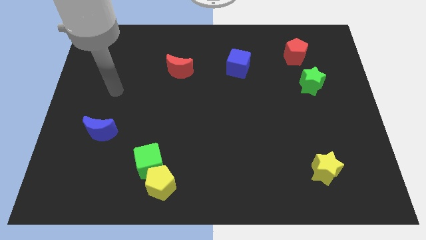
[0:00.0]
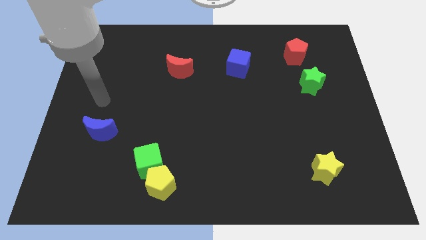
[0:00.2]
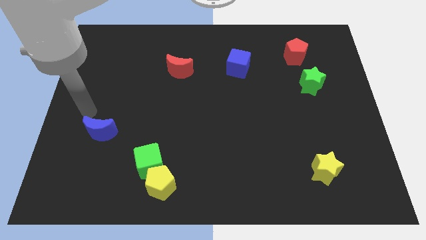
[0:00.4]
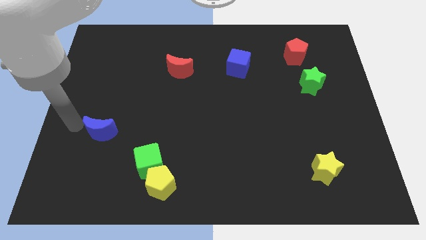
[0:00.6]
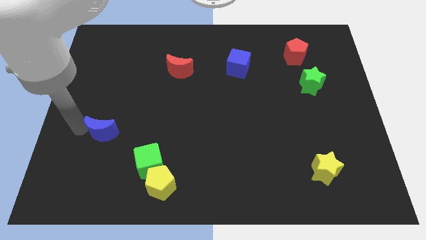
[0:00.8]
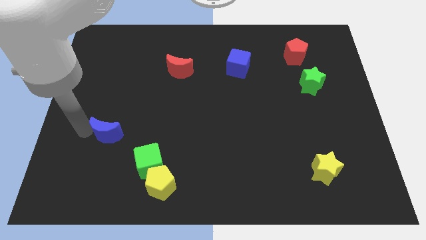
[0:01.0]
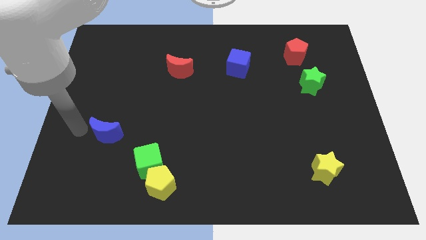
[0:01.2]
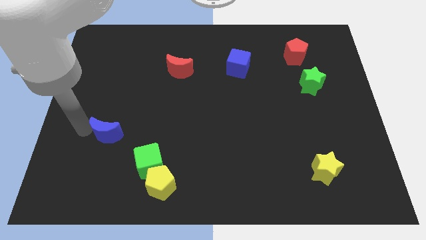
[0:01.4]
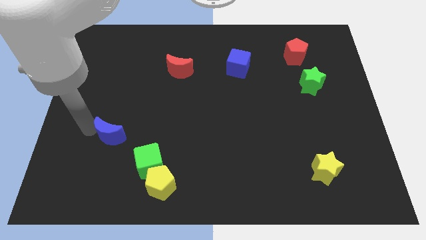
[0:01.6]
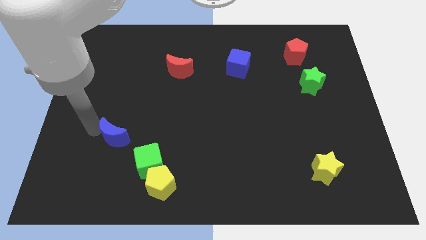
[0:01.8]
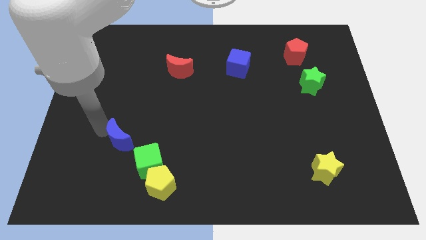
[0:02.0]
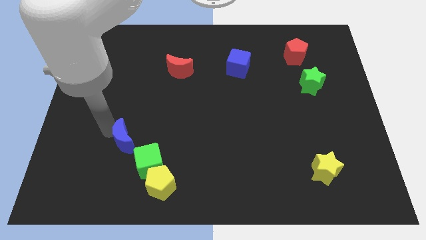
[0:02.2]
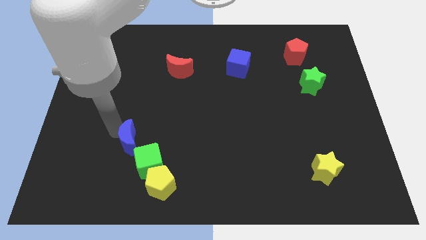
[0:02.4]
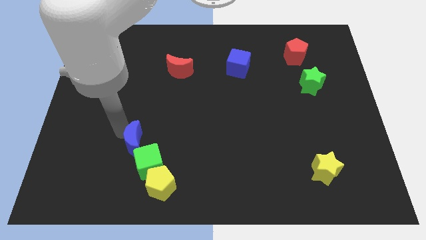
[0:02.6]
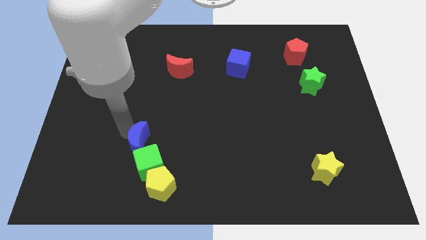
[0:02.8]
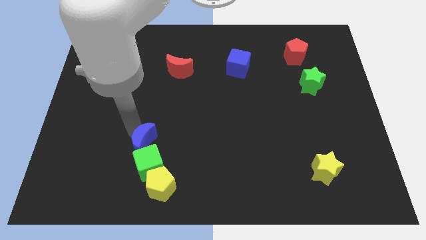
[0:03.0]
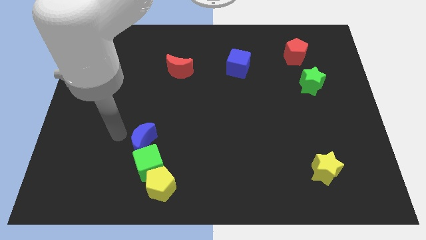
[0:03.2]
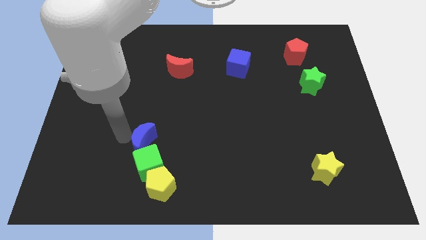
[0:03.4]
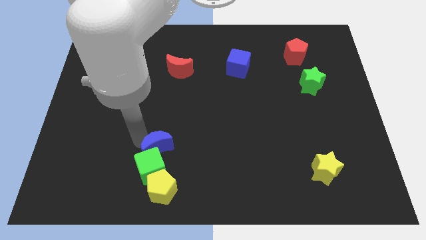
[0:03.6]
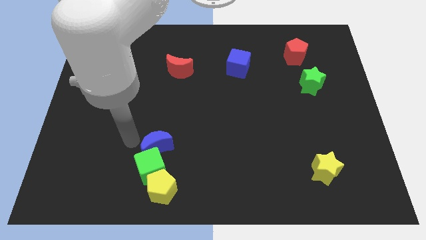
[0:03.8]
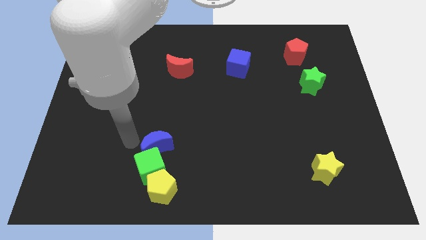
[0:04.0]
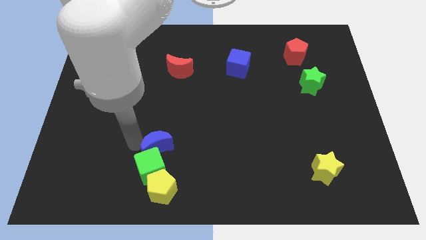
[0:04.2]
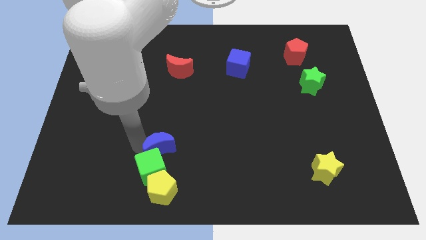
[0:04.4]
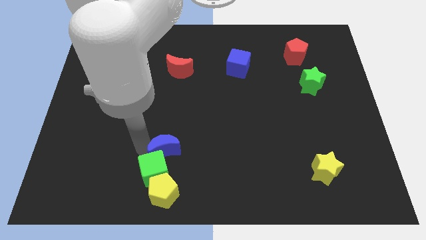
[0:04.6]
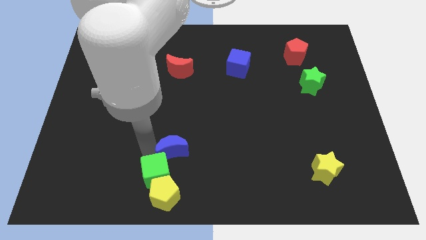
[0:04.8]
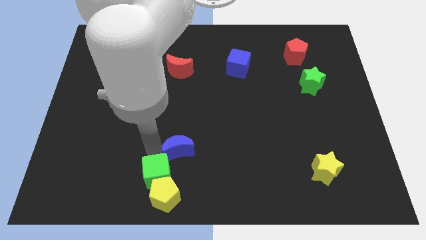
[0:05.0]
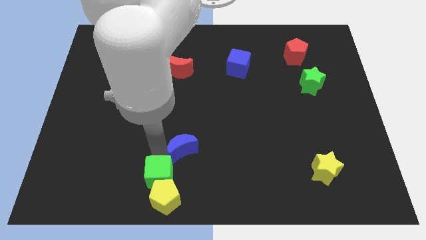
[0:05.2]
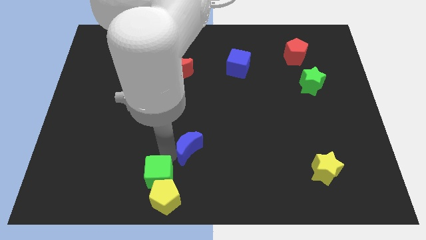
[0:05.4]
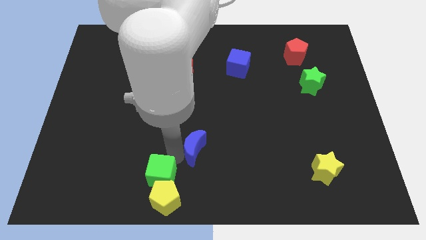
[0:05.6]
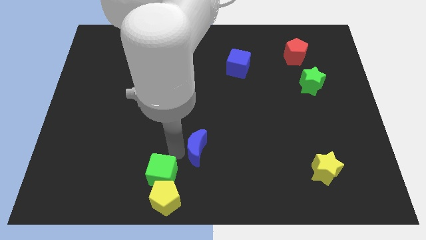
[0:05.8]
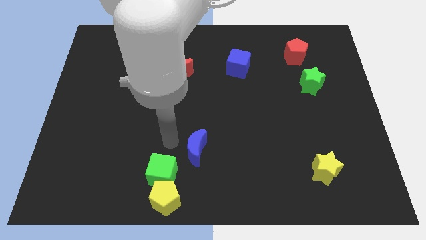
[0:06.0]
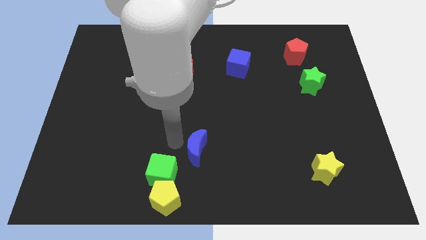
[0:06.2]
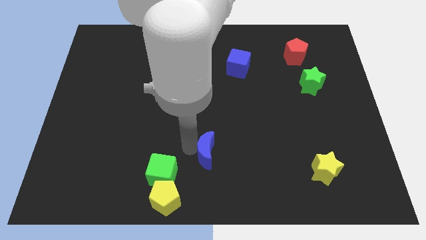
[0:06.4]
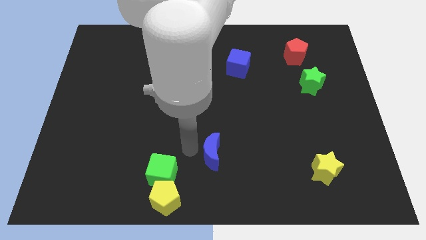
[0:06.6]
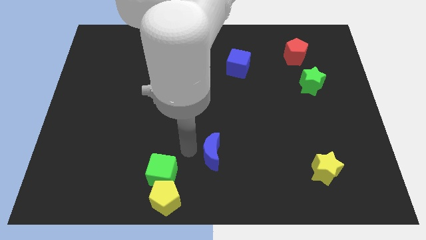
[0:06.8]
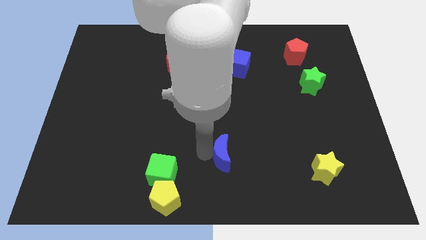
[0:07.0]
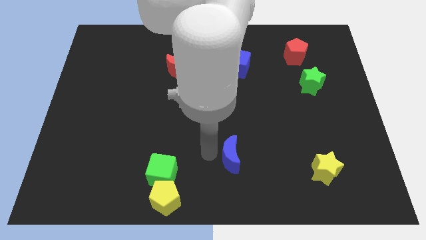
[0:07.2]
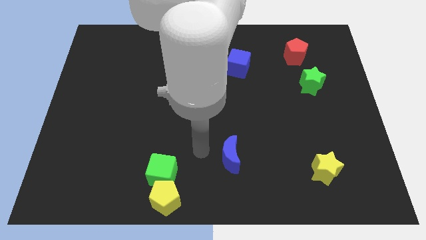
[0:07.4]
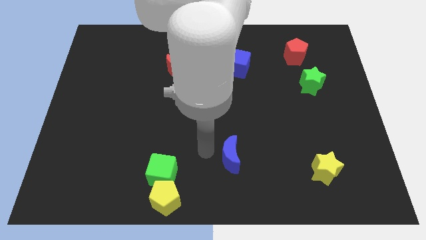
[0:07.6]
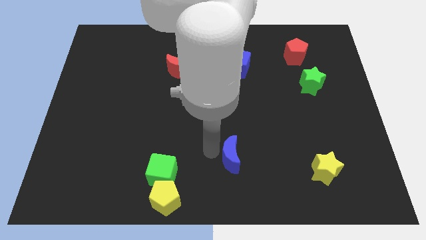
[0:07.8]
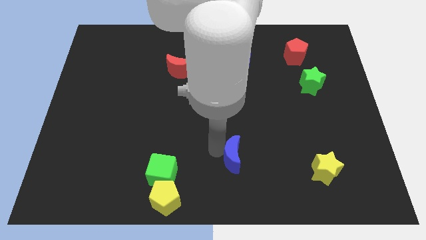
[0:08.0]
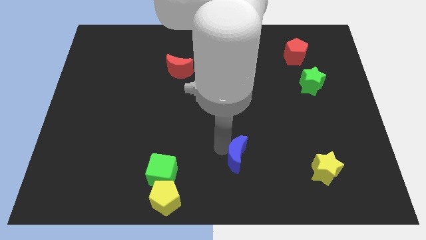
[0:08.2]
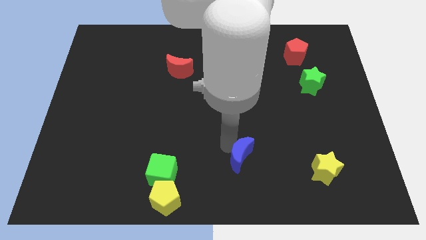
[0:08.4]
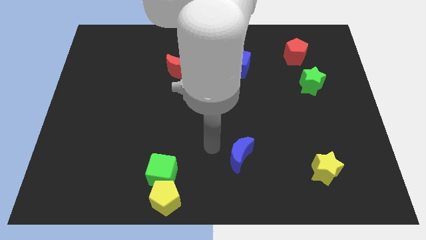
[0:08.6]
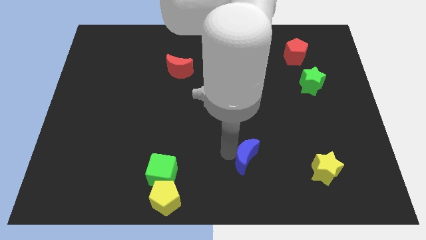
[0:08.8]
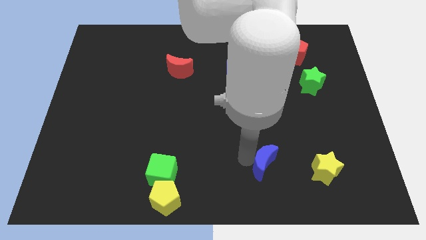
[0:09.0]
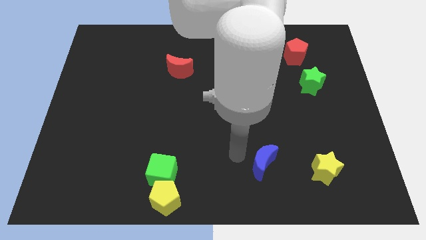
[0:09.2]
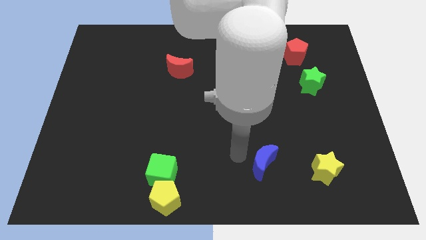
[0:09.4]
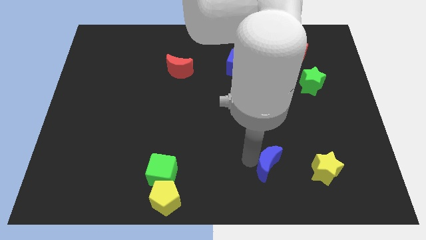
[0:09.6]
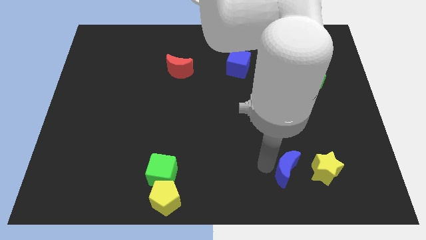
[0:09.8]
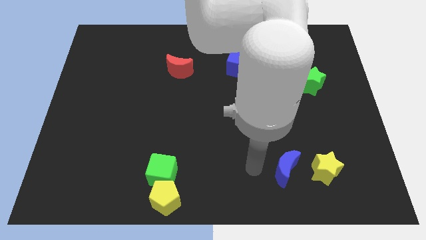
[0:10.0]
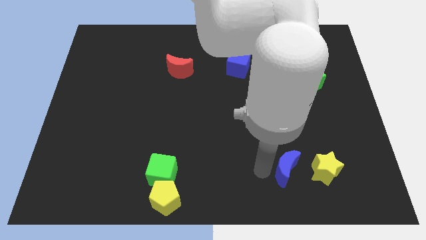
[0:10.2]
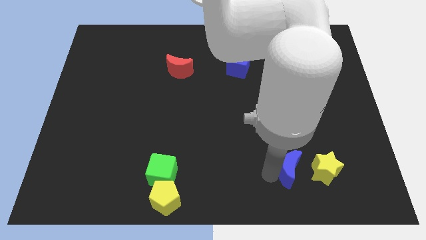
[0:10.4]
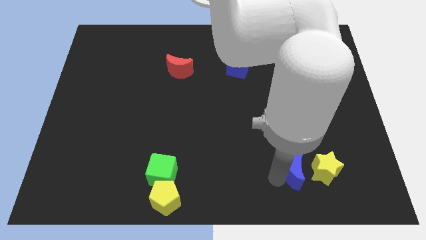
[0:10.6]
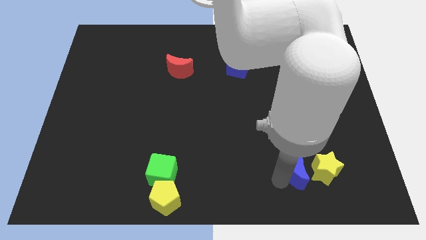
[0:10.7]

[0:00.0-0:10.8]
slide the blue moon towards the yellow star

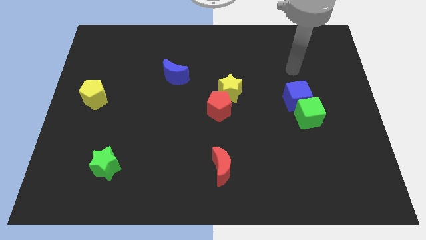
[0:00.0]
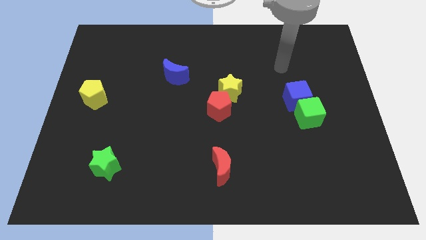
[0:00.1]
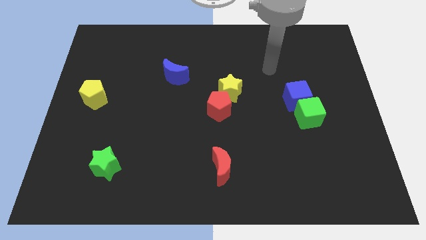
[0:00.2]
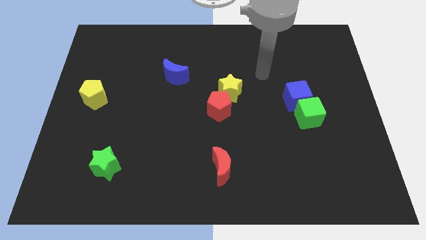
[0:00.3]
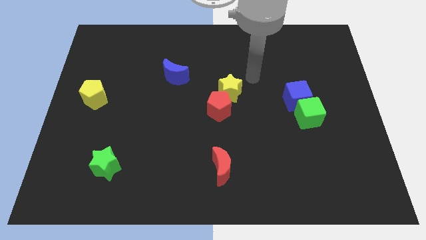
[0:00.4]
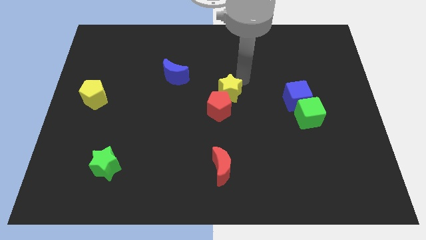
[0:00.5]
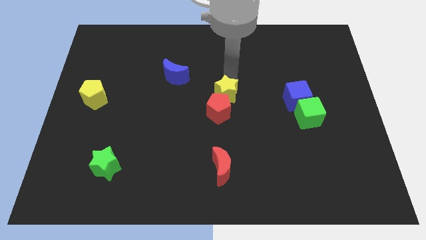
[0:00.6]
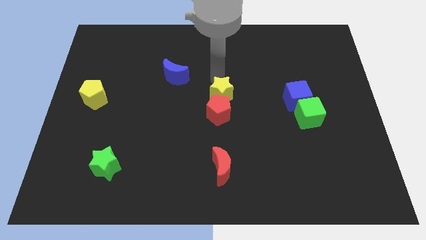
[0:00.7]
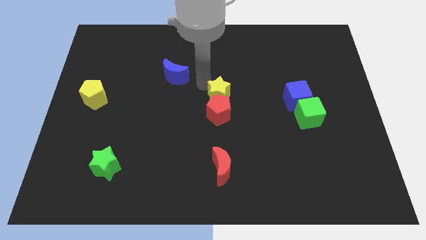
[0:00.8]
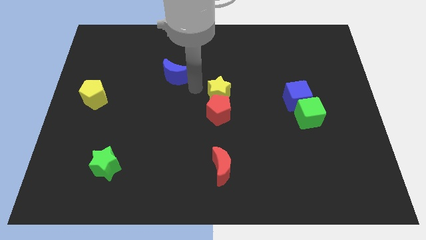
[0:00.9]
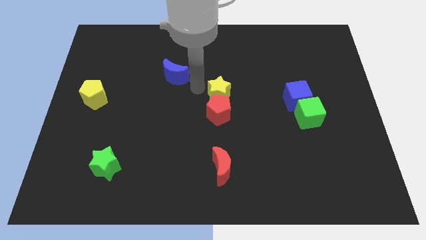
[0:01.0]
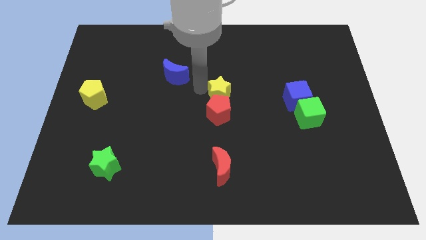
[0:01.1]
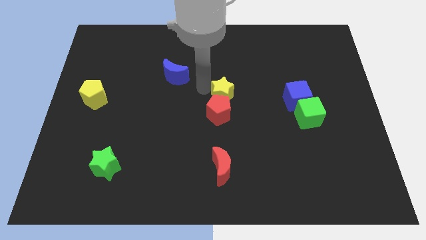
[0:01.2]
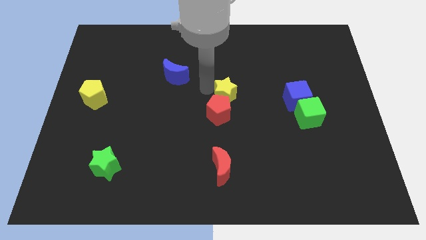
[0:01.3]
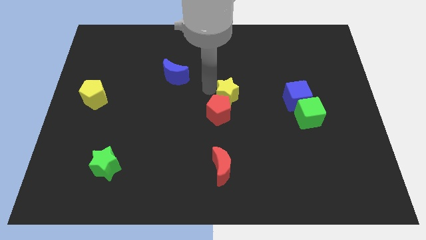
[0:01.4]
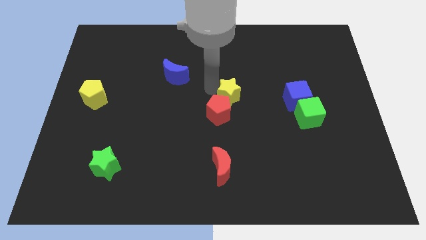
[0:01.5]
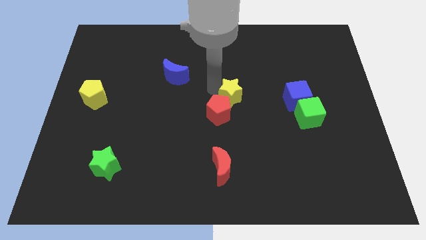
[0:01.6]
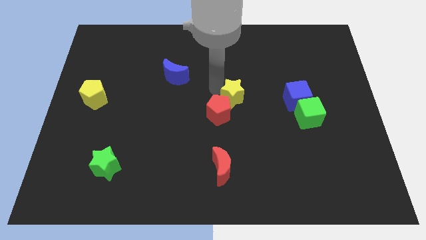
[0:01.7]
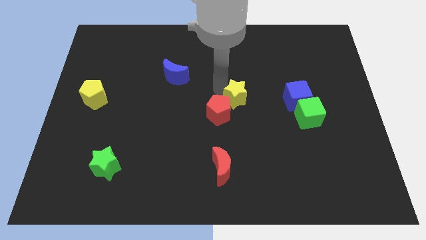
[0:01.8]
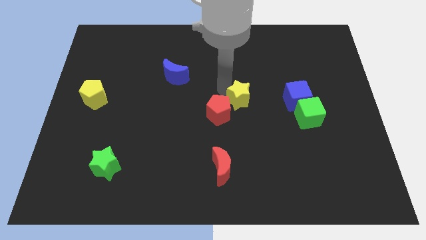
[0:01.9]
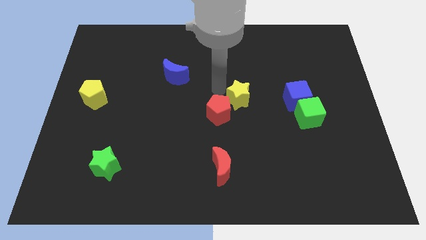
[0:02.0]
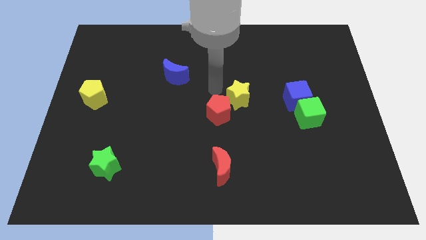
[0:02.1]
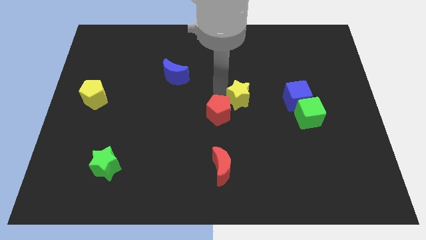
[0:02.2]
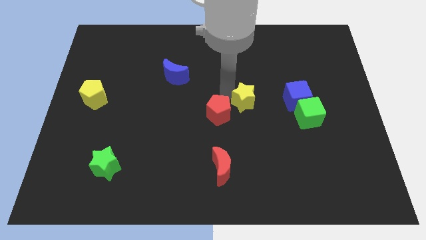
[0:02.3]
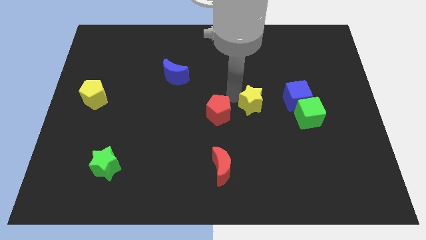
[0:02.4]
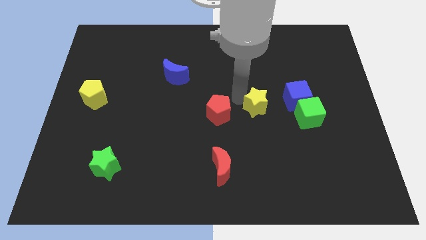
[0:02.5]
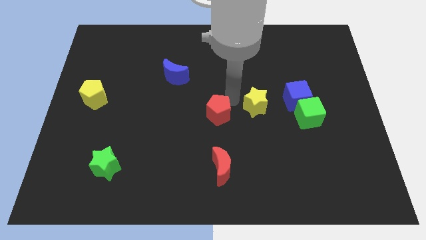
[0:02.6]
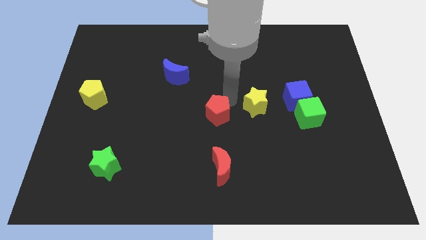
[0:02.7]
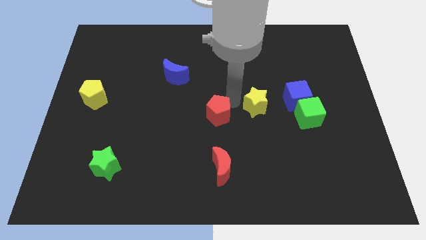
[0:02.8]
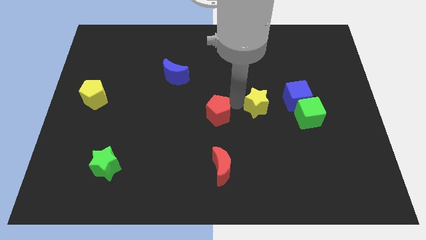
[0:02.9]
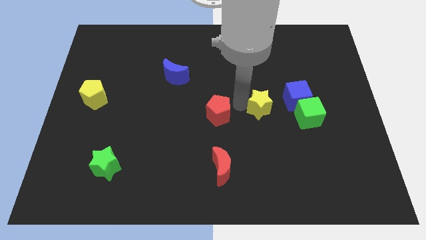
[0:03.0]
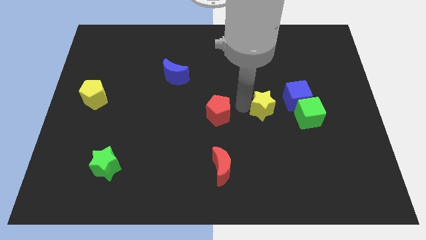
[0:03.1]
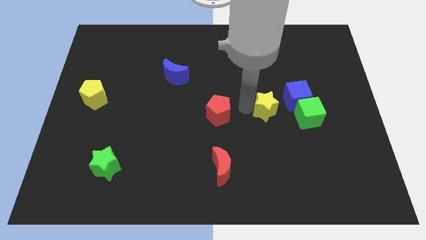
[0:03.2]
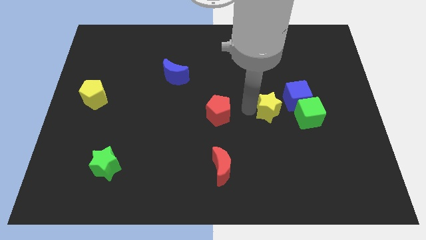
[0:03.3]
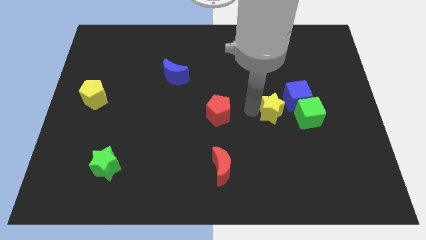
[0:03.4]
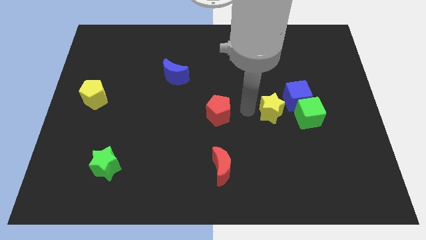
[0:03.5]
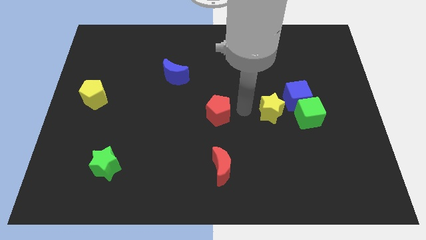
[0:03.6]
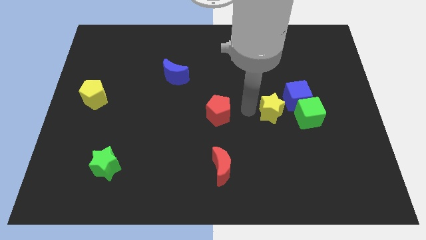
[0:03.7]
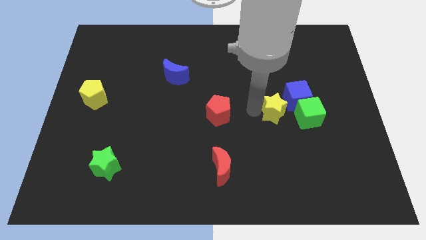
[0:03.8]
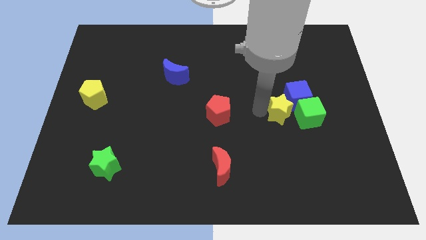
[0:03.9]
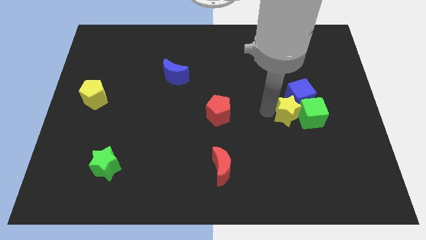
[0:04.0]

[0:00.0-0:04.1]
put the yellow star next to the green cube
